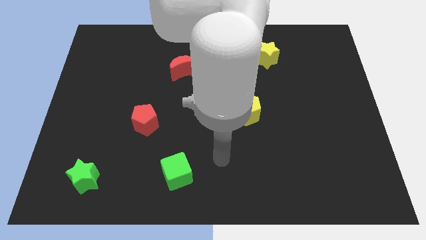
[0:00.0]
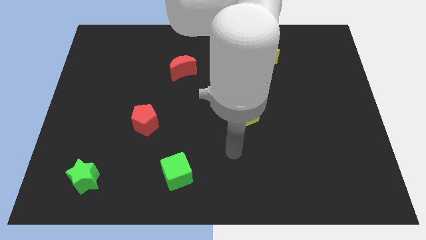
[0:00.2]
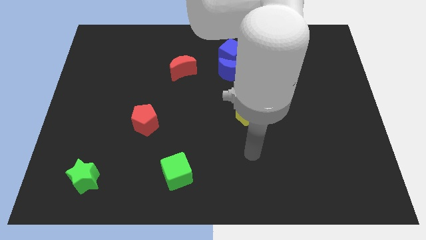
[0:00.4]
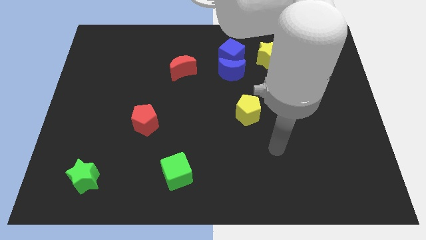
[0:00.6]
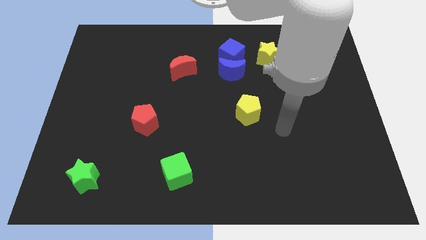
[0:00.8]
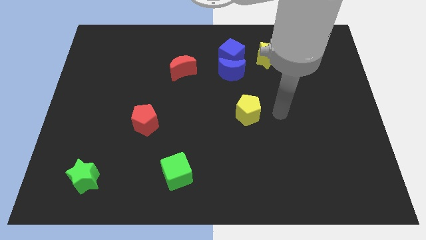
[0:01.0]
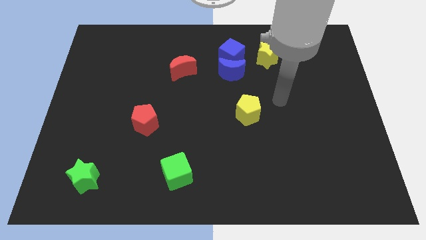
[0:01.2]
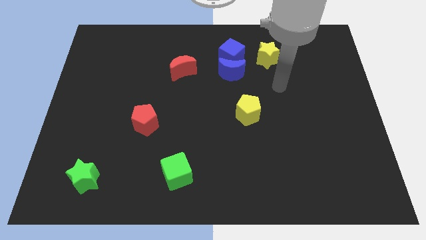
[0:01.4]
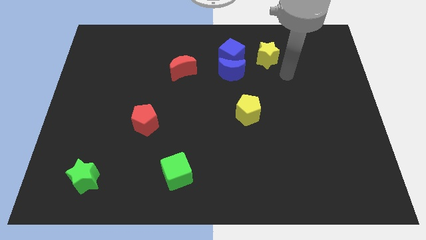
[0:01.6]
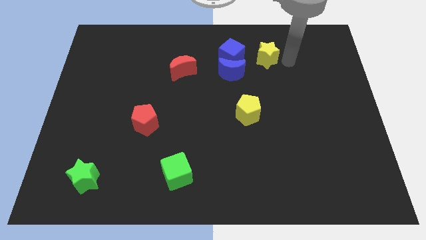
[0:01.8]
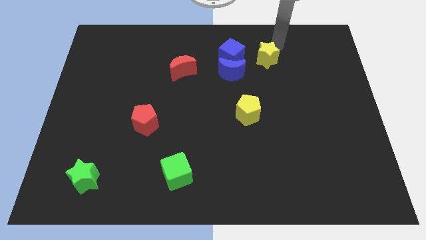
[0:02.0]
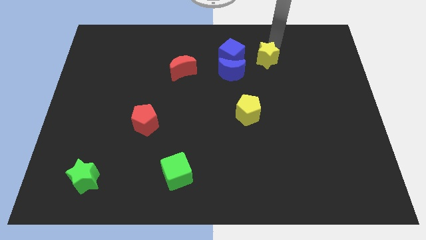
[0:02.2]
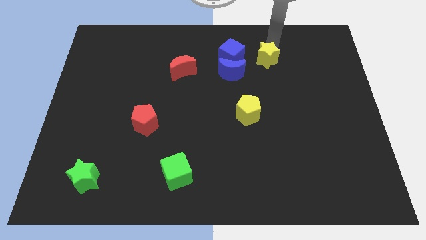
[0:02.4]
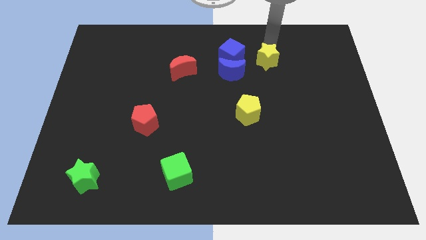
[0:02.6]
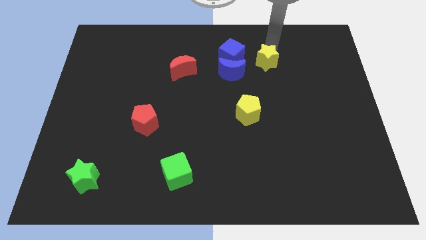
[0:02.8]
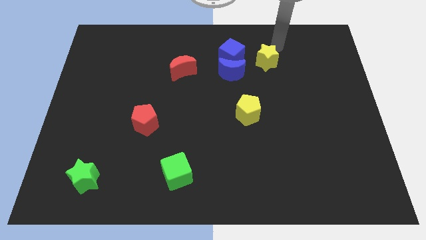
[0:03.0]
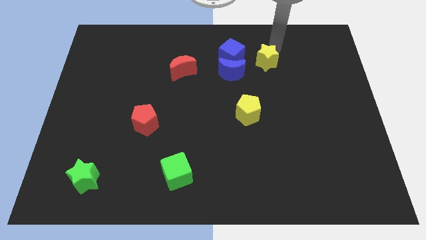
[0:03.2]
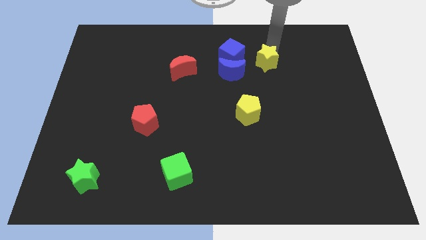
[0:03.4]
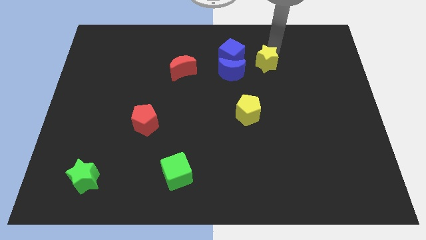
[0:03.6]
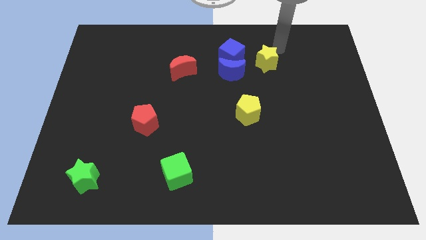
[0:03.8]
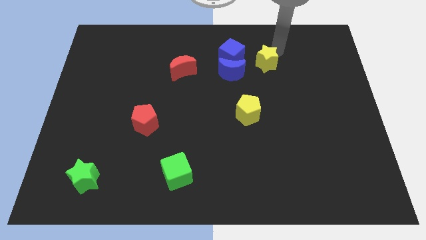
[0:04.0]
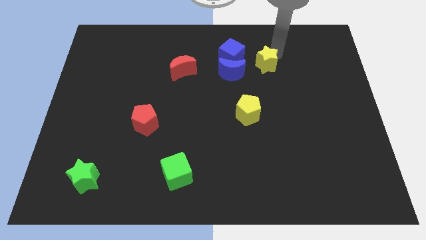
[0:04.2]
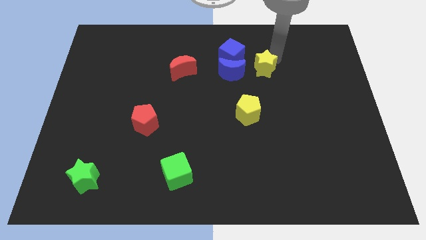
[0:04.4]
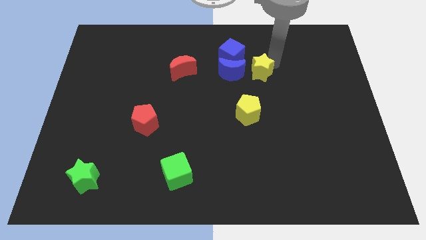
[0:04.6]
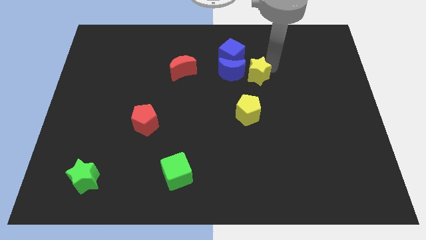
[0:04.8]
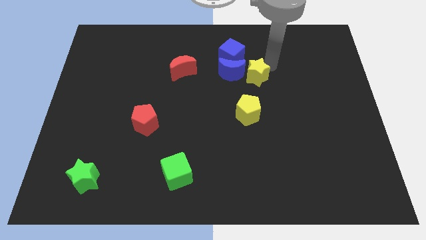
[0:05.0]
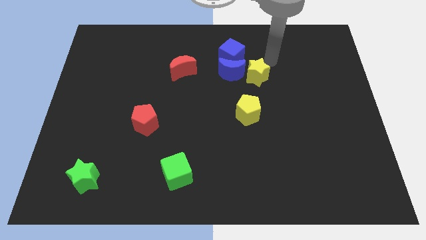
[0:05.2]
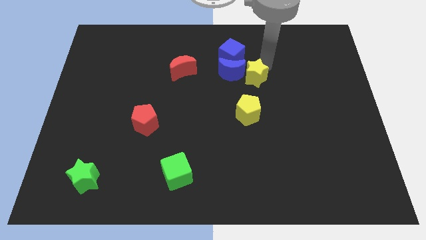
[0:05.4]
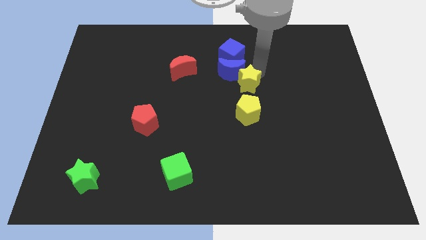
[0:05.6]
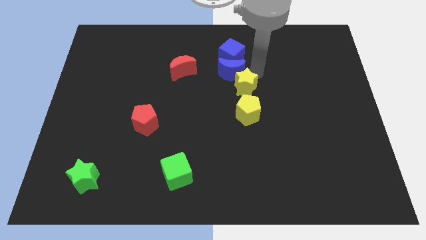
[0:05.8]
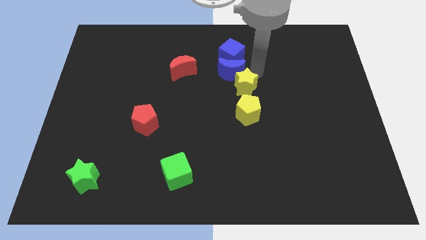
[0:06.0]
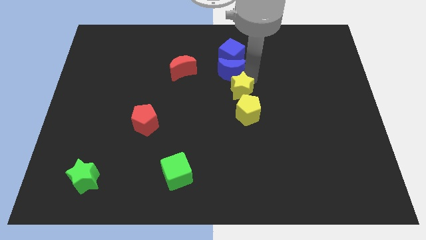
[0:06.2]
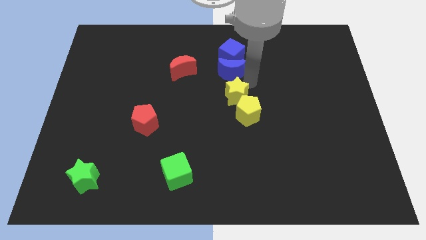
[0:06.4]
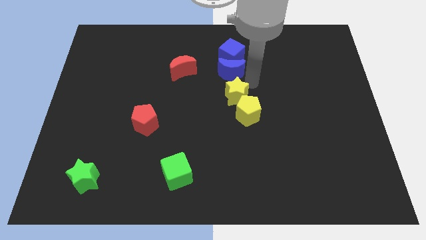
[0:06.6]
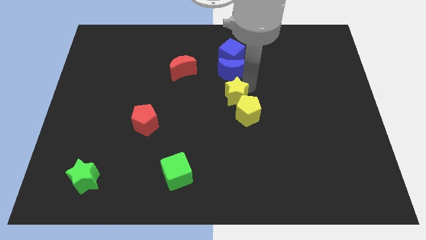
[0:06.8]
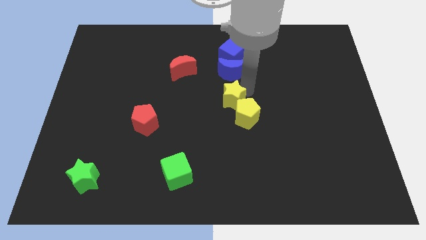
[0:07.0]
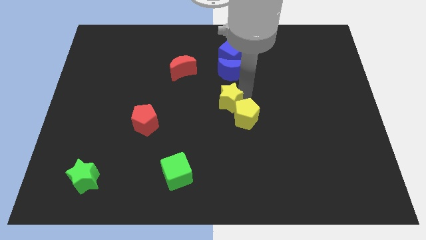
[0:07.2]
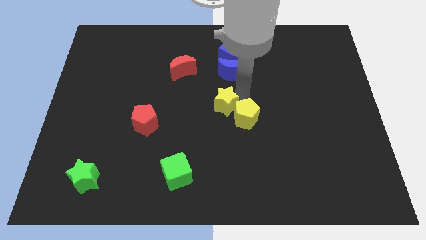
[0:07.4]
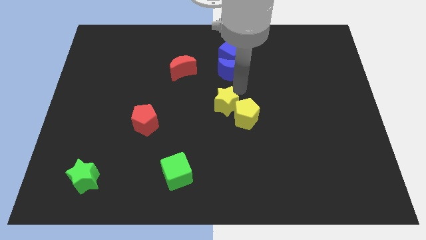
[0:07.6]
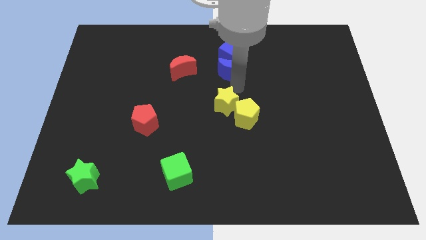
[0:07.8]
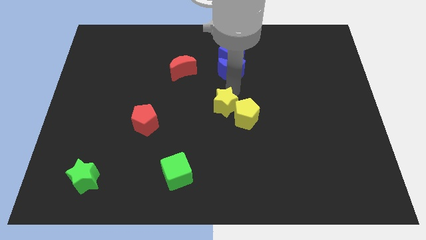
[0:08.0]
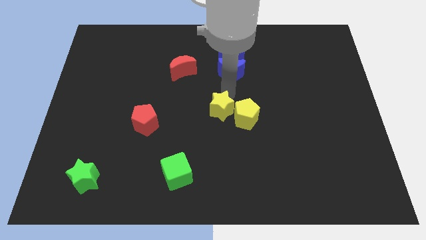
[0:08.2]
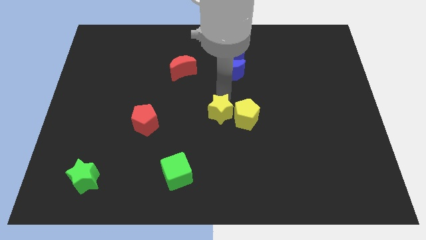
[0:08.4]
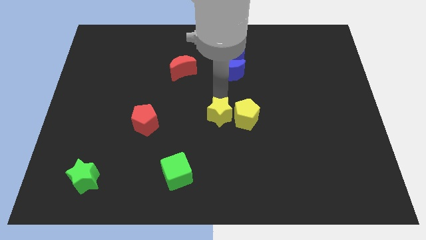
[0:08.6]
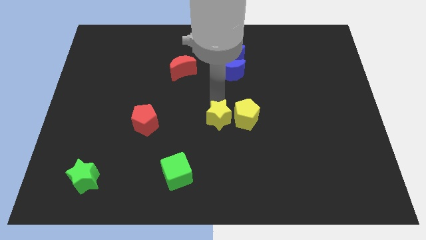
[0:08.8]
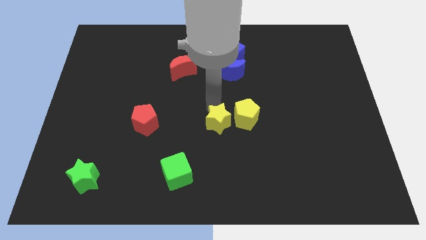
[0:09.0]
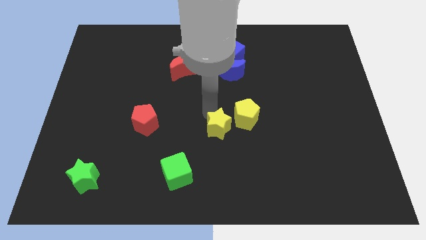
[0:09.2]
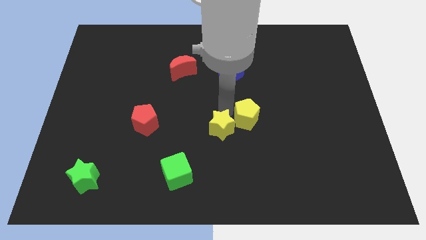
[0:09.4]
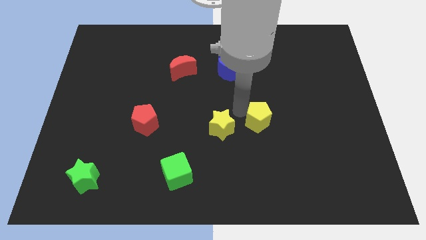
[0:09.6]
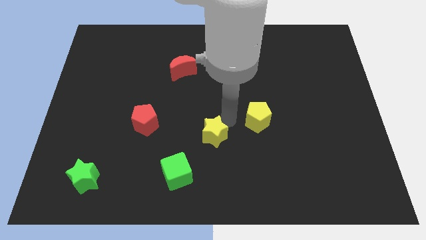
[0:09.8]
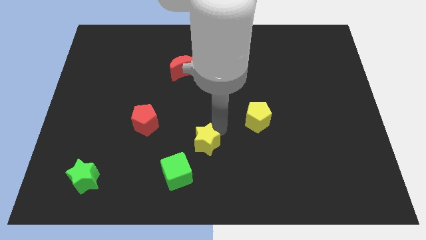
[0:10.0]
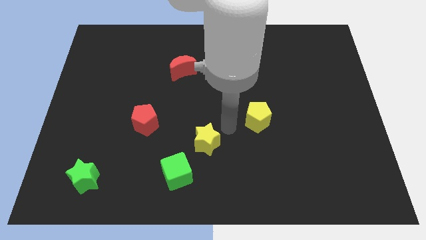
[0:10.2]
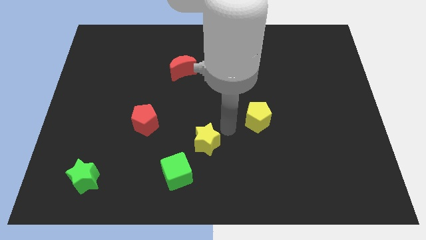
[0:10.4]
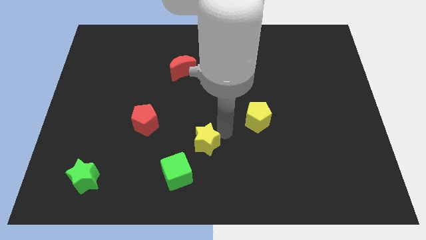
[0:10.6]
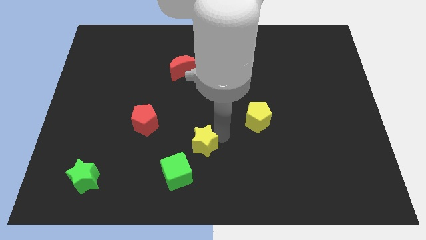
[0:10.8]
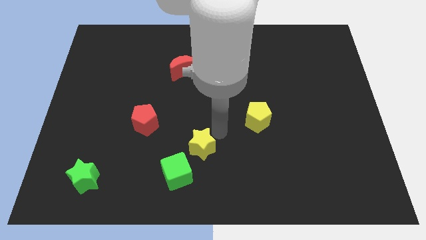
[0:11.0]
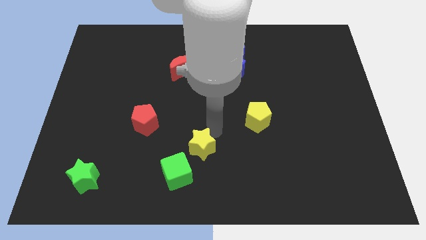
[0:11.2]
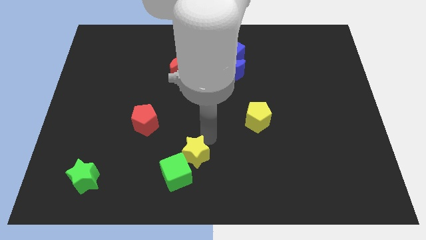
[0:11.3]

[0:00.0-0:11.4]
slide the yellow star next to the green cube

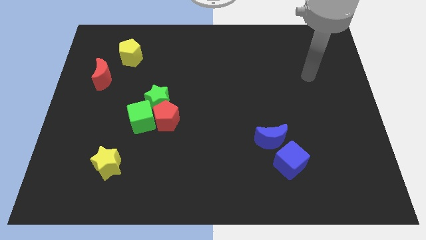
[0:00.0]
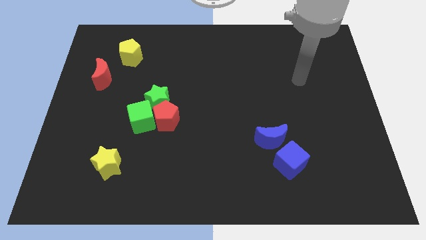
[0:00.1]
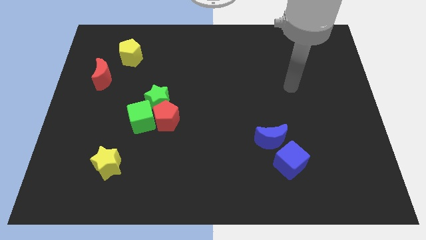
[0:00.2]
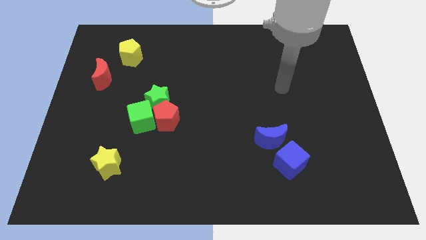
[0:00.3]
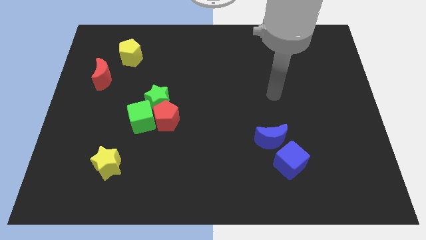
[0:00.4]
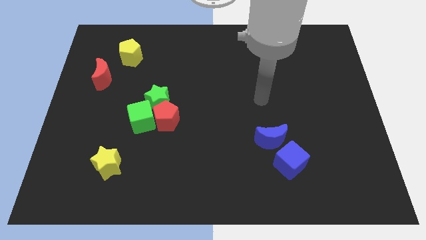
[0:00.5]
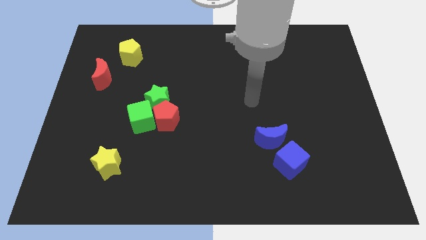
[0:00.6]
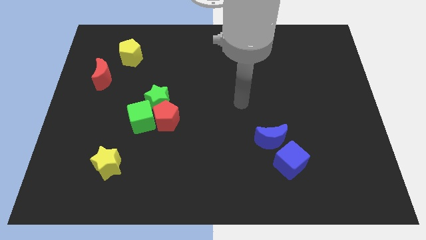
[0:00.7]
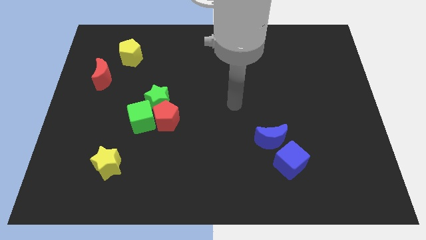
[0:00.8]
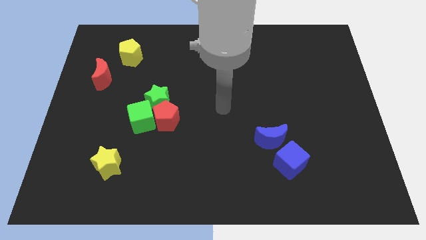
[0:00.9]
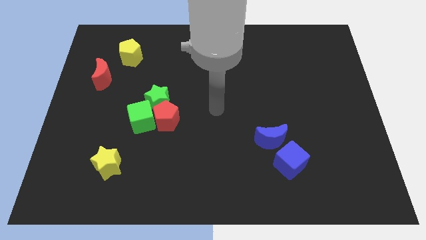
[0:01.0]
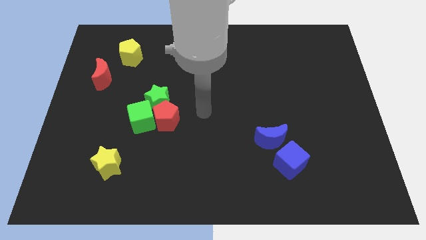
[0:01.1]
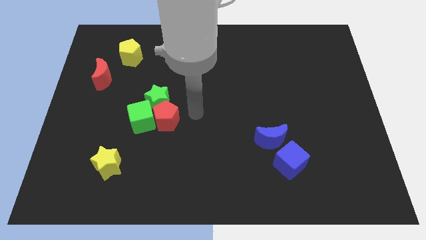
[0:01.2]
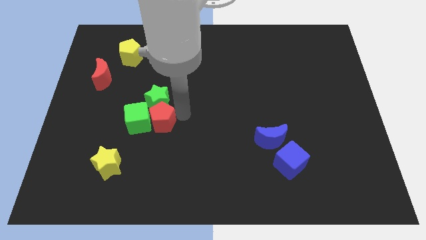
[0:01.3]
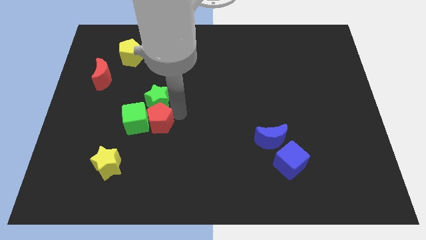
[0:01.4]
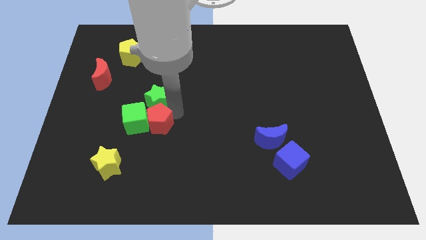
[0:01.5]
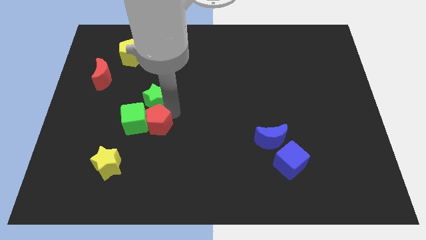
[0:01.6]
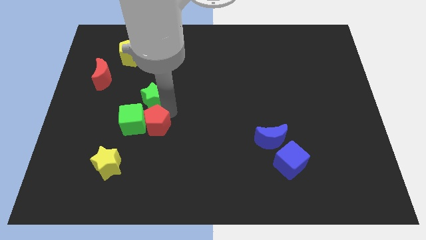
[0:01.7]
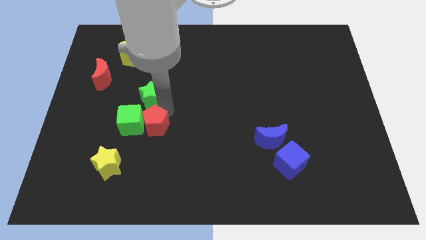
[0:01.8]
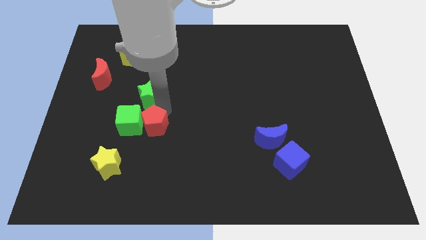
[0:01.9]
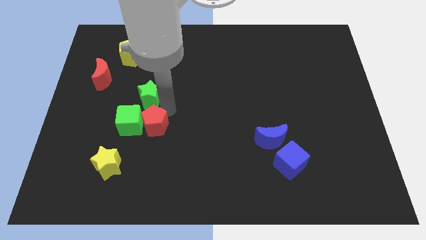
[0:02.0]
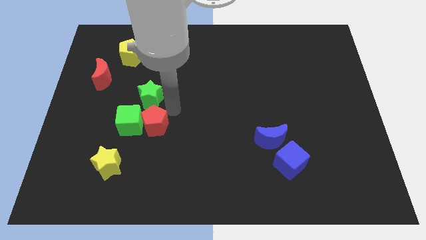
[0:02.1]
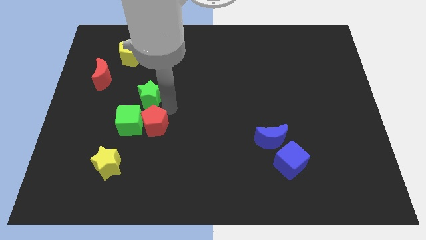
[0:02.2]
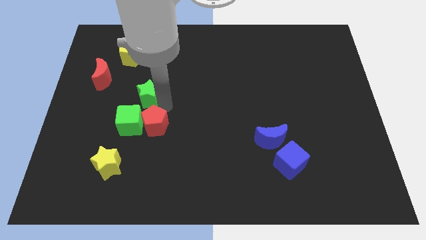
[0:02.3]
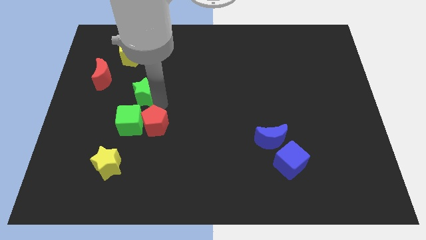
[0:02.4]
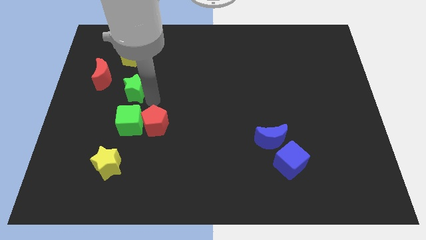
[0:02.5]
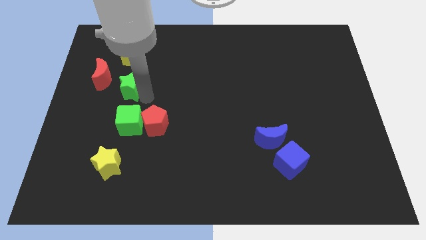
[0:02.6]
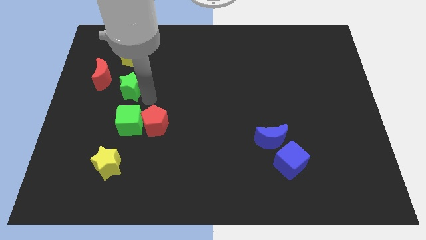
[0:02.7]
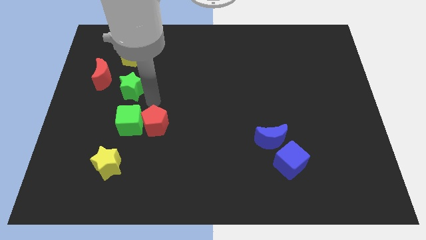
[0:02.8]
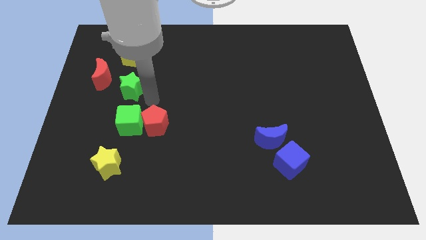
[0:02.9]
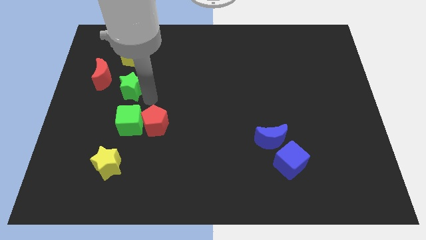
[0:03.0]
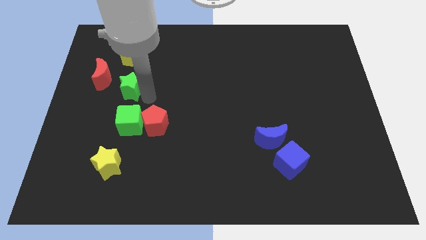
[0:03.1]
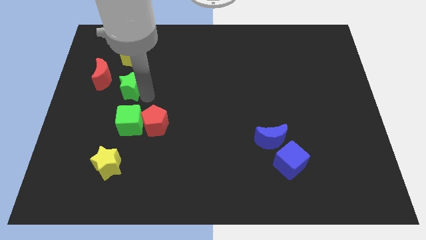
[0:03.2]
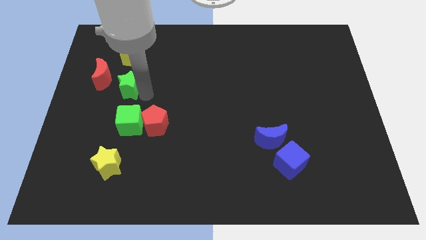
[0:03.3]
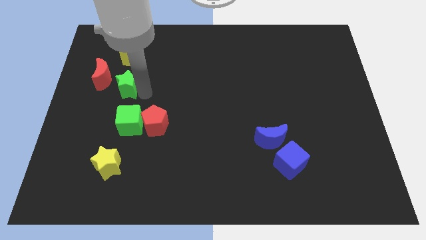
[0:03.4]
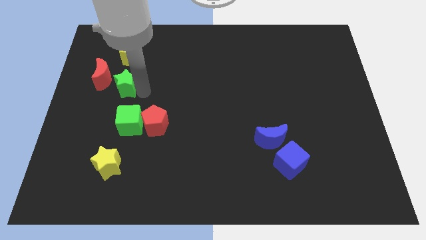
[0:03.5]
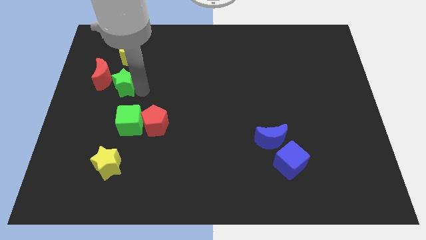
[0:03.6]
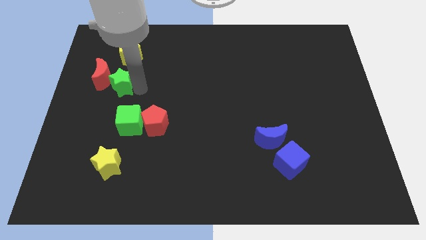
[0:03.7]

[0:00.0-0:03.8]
push the green star towards the red moon
